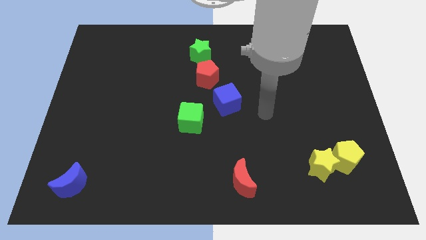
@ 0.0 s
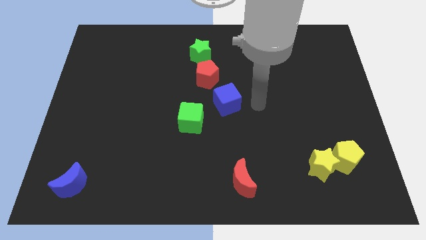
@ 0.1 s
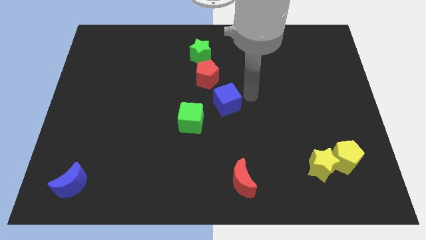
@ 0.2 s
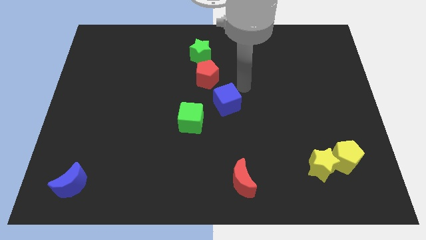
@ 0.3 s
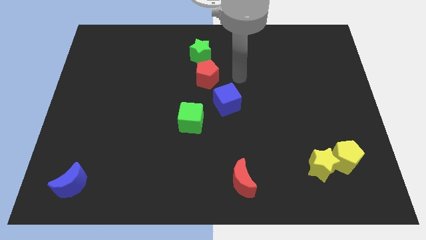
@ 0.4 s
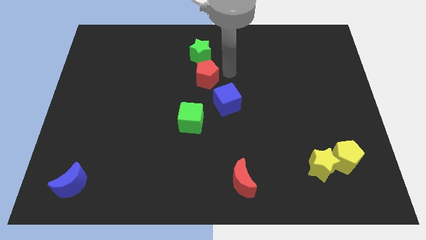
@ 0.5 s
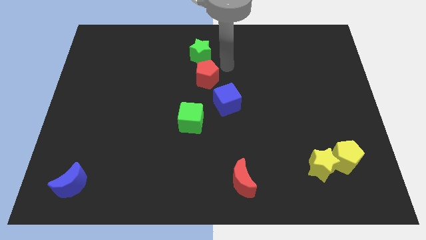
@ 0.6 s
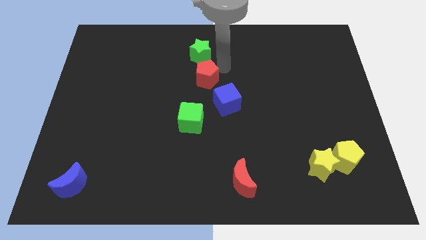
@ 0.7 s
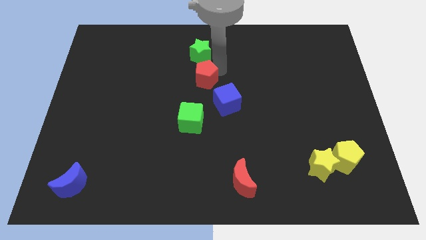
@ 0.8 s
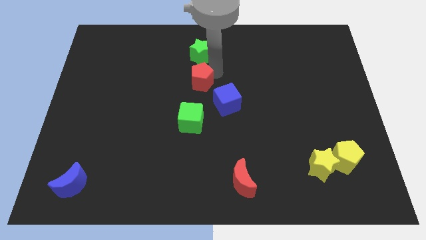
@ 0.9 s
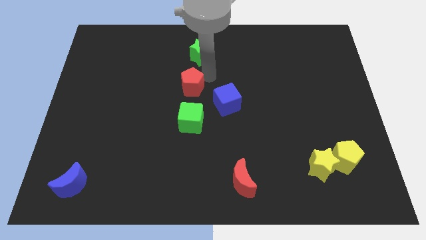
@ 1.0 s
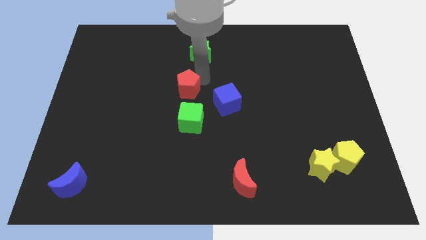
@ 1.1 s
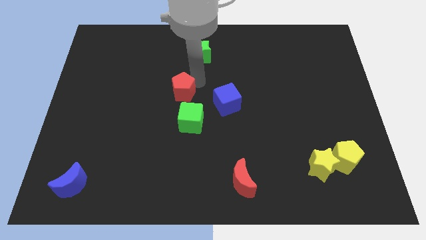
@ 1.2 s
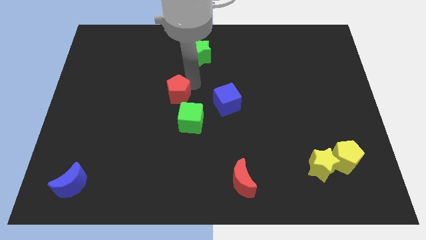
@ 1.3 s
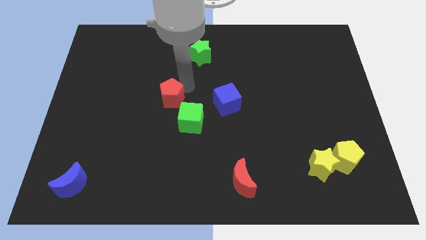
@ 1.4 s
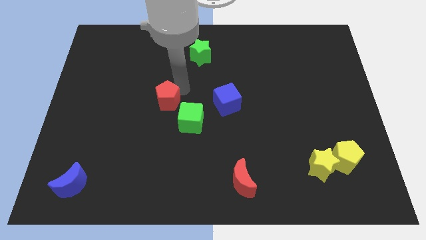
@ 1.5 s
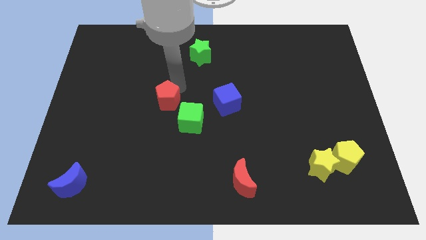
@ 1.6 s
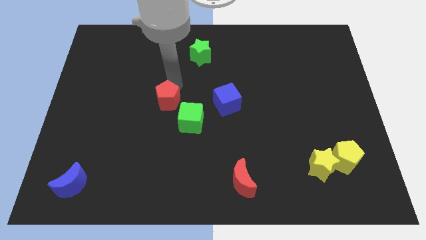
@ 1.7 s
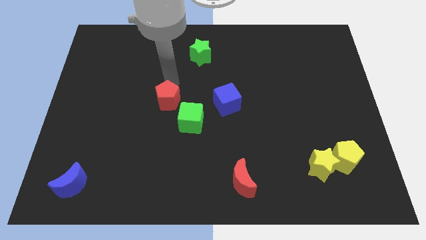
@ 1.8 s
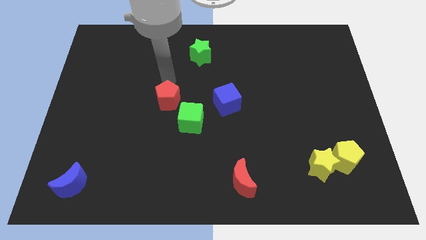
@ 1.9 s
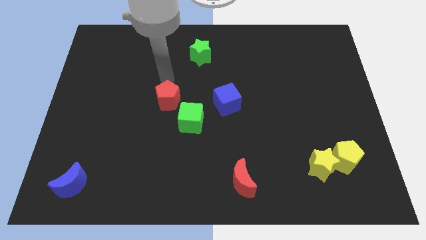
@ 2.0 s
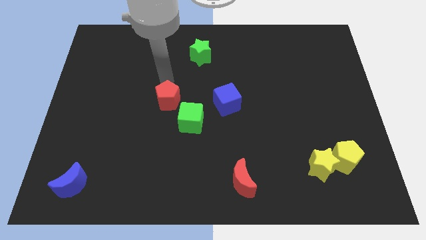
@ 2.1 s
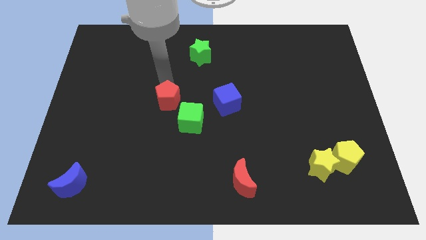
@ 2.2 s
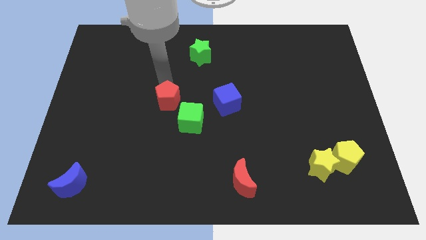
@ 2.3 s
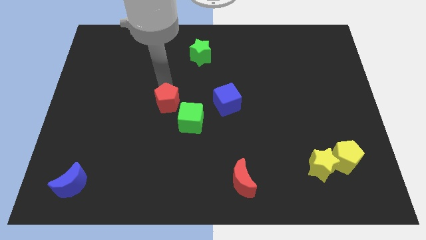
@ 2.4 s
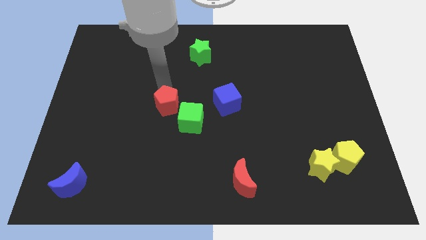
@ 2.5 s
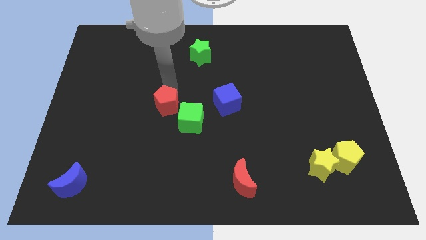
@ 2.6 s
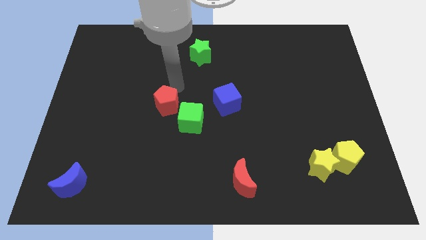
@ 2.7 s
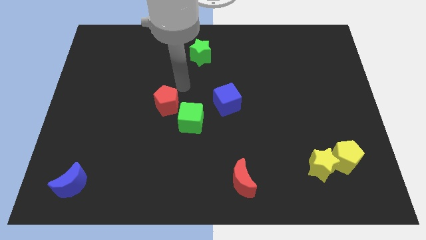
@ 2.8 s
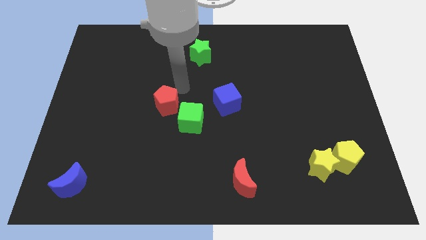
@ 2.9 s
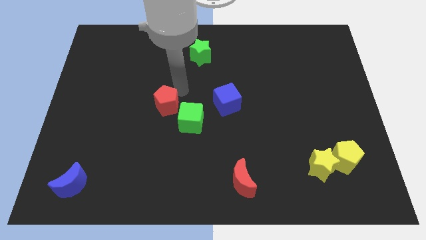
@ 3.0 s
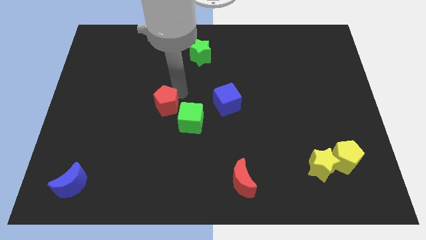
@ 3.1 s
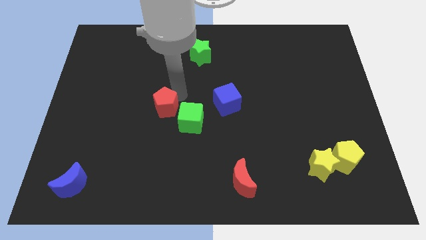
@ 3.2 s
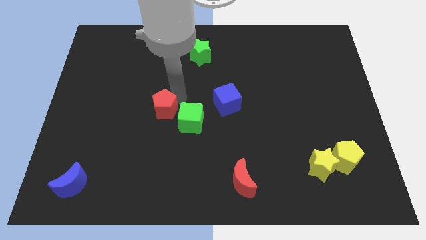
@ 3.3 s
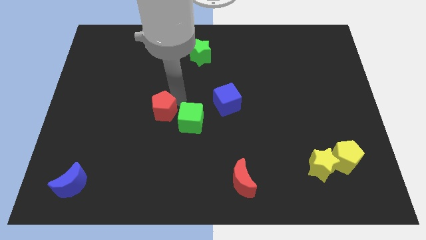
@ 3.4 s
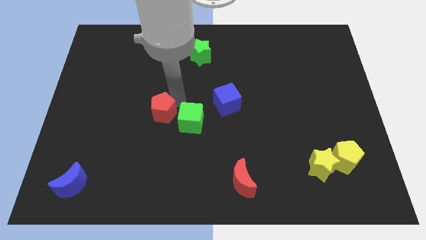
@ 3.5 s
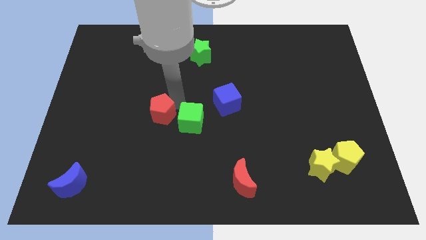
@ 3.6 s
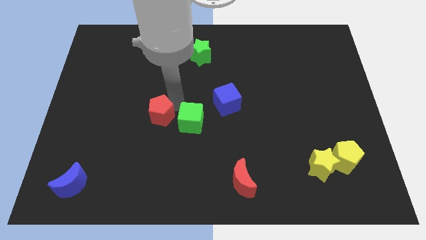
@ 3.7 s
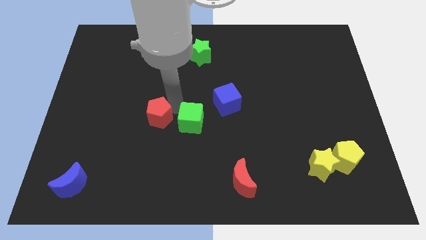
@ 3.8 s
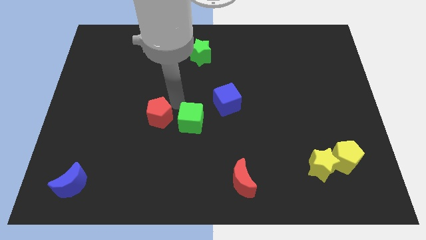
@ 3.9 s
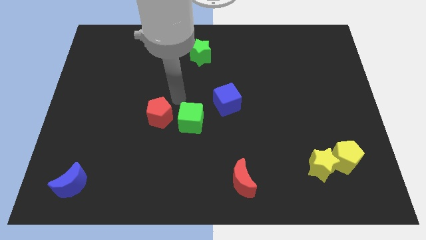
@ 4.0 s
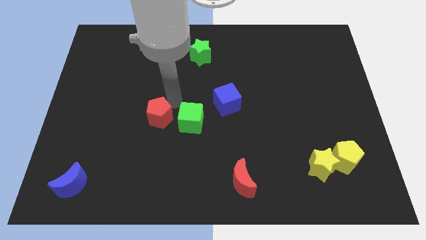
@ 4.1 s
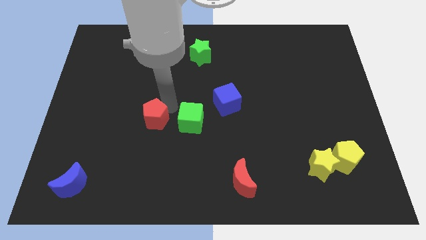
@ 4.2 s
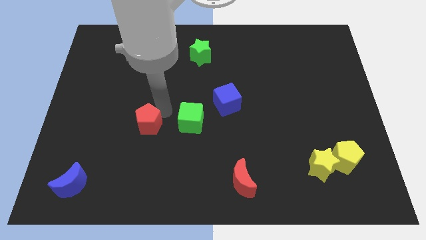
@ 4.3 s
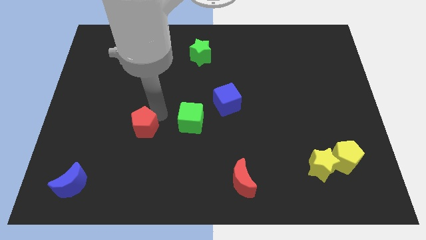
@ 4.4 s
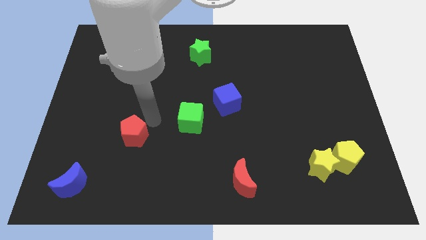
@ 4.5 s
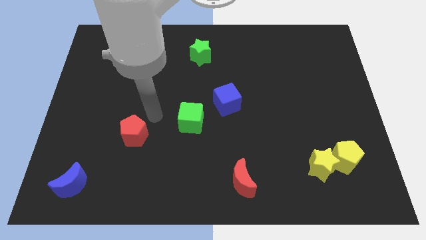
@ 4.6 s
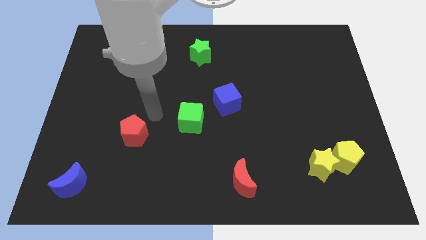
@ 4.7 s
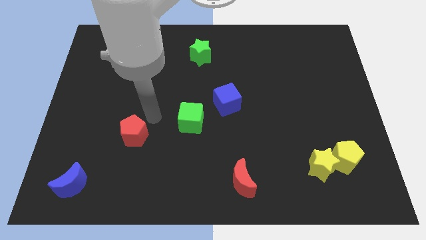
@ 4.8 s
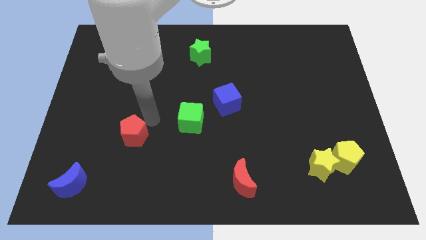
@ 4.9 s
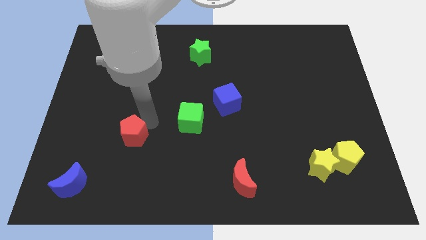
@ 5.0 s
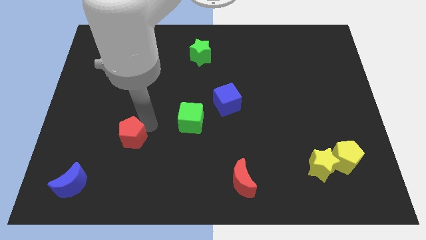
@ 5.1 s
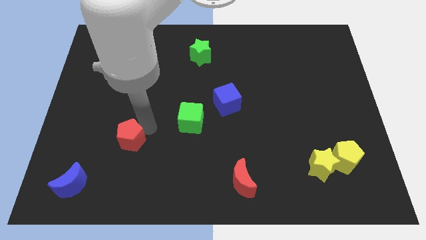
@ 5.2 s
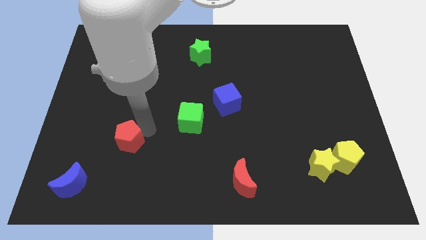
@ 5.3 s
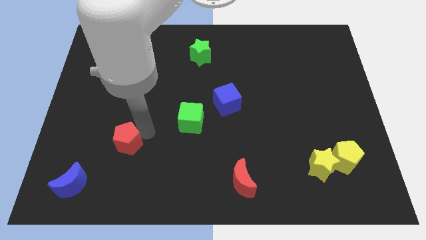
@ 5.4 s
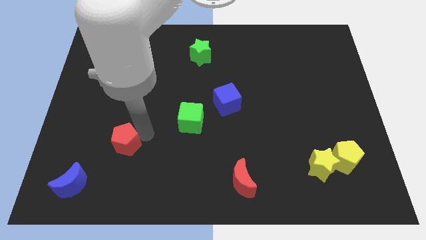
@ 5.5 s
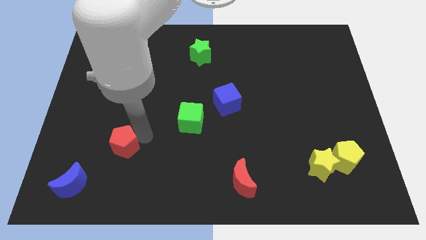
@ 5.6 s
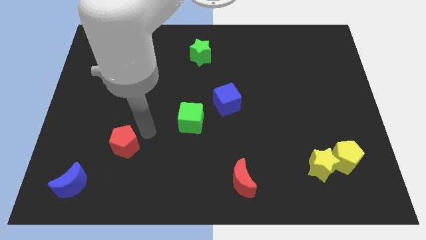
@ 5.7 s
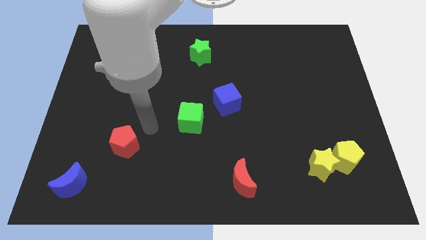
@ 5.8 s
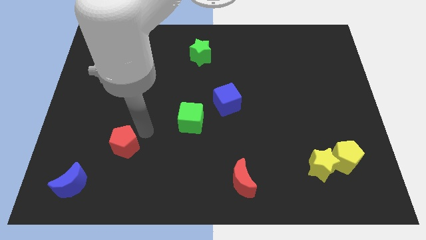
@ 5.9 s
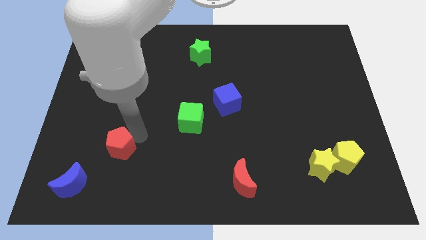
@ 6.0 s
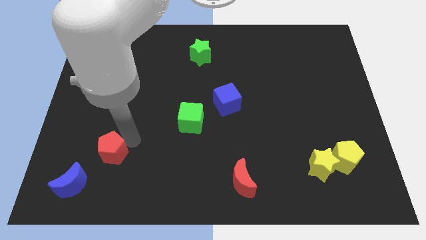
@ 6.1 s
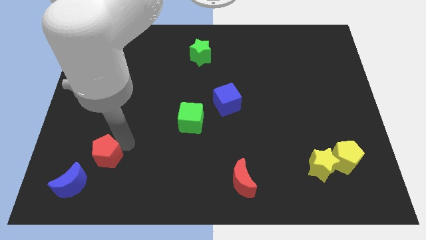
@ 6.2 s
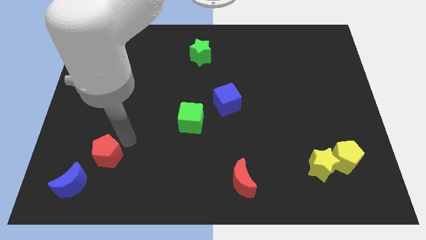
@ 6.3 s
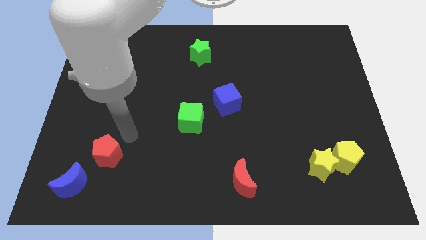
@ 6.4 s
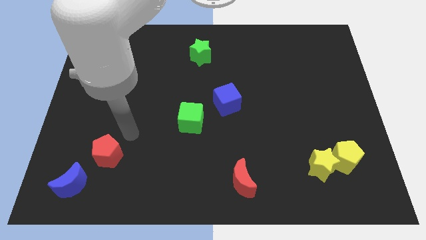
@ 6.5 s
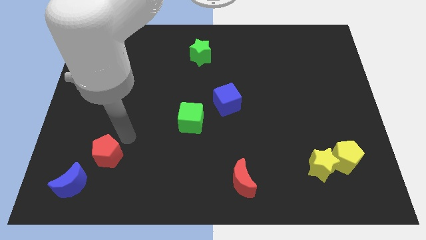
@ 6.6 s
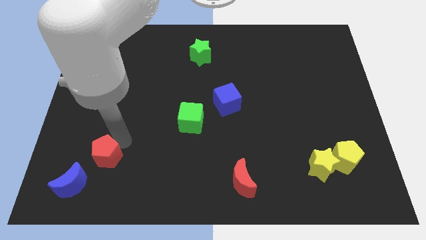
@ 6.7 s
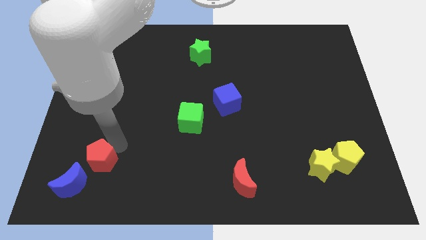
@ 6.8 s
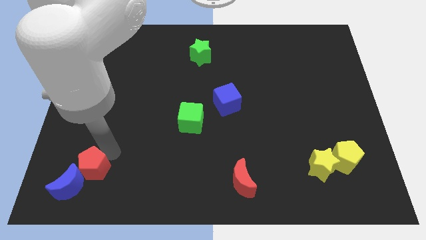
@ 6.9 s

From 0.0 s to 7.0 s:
slide the red pentagon close to the blue moon

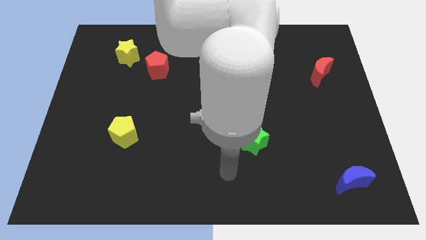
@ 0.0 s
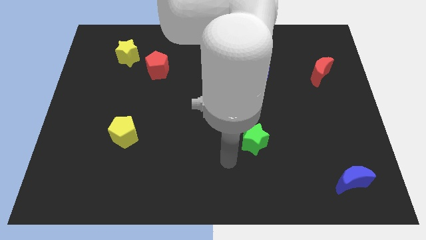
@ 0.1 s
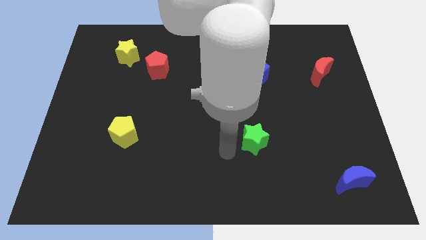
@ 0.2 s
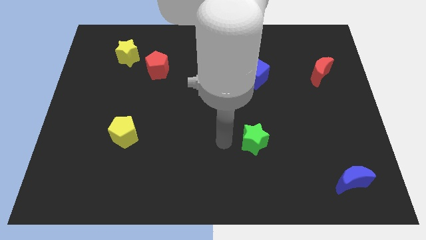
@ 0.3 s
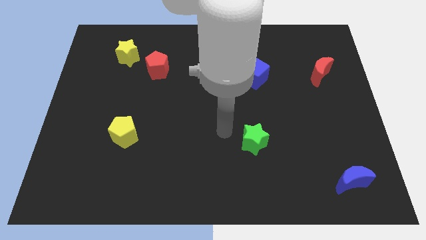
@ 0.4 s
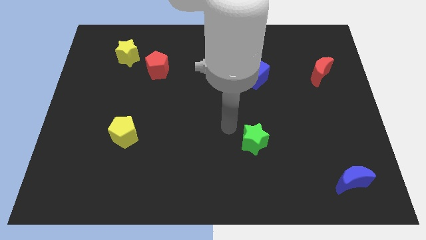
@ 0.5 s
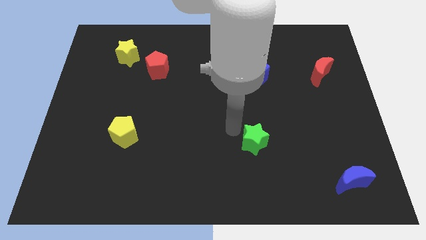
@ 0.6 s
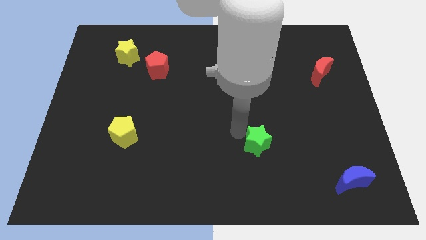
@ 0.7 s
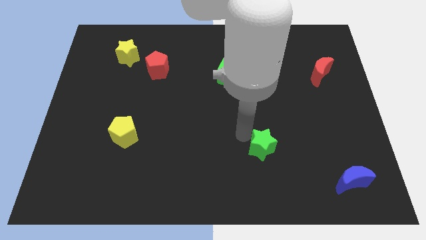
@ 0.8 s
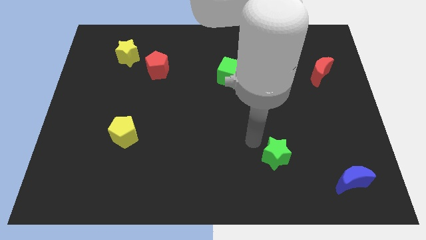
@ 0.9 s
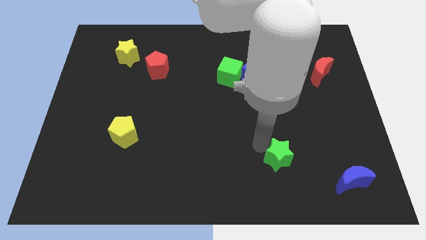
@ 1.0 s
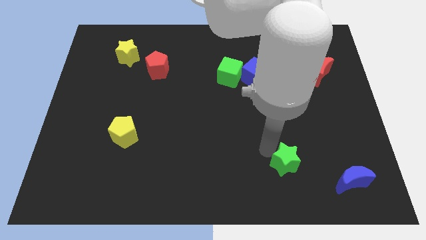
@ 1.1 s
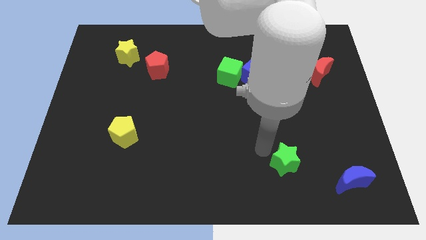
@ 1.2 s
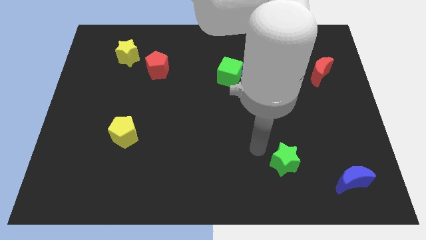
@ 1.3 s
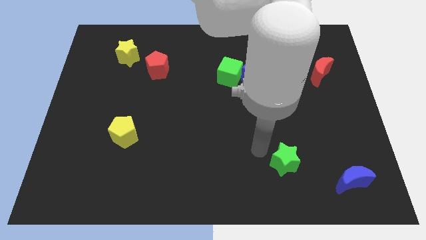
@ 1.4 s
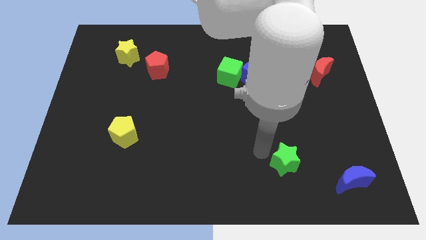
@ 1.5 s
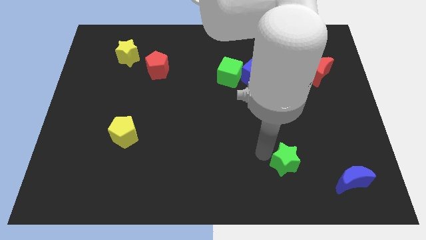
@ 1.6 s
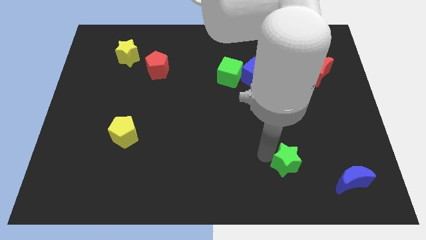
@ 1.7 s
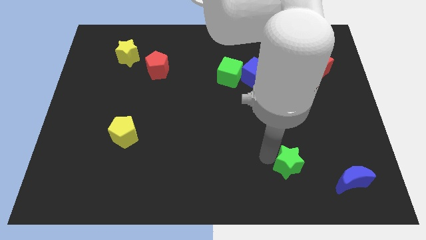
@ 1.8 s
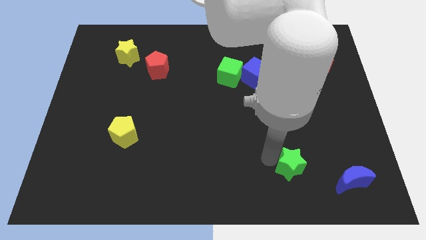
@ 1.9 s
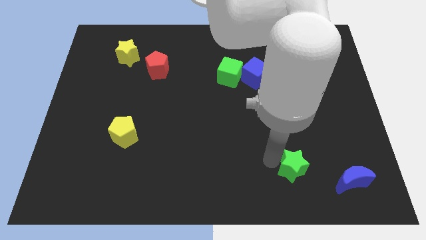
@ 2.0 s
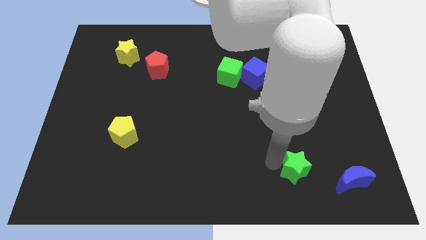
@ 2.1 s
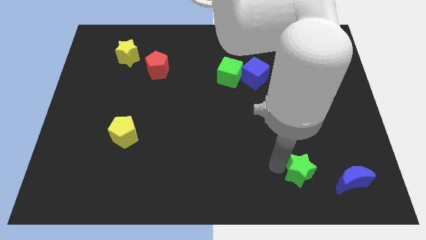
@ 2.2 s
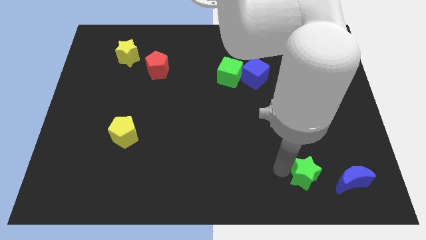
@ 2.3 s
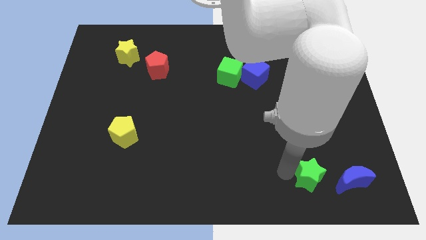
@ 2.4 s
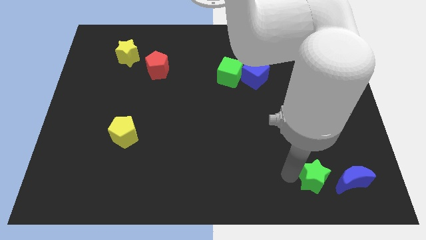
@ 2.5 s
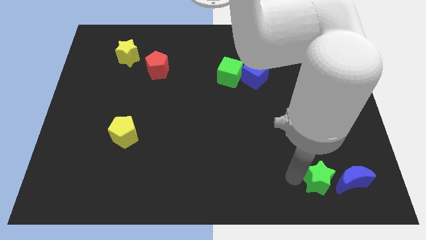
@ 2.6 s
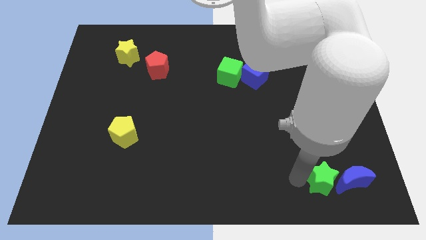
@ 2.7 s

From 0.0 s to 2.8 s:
push the green star next to the blue moon
